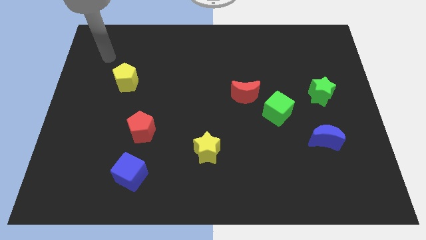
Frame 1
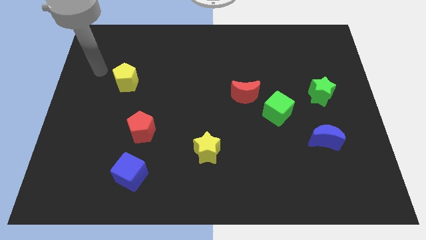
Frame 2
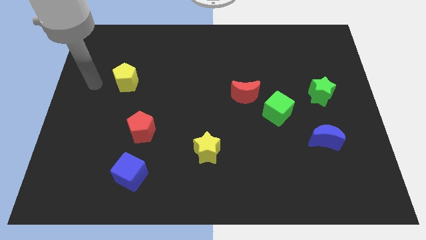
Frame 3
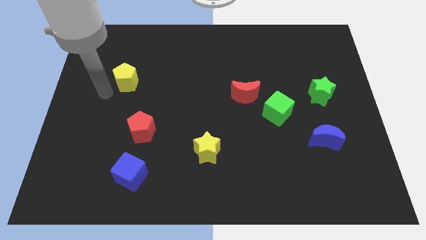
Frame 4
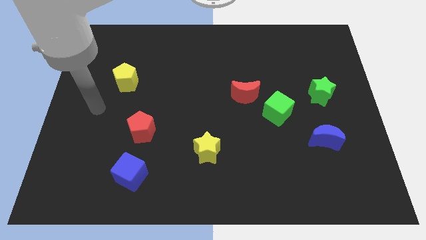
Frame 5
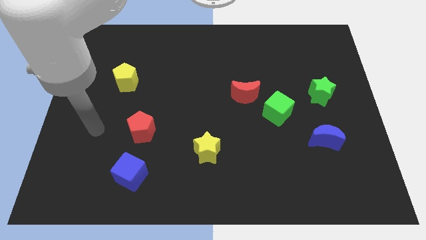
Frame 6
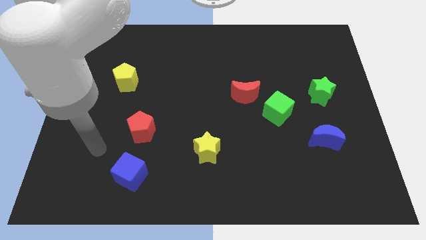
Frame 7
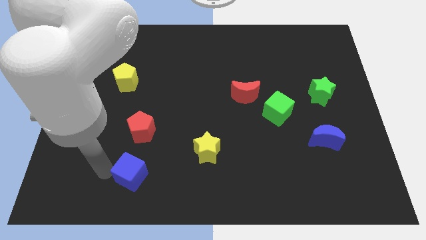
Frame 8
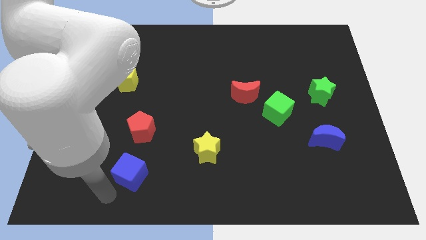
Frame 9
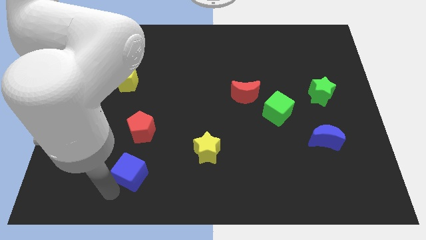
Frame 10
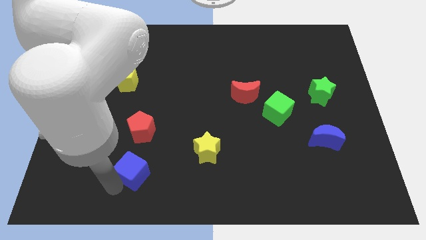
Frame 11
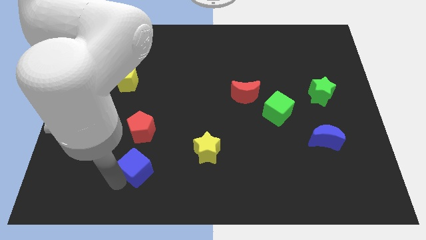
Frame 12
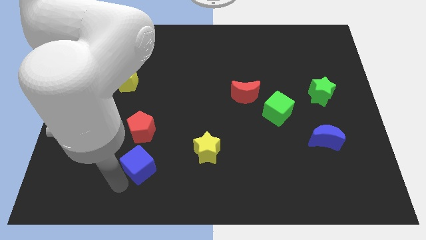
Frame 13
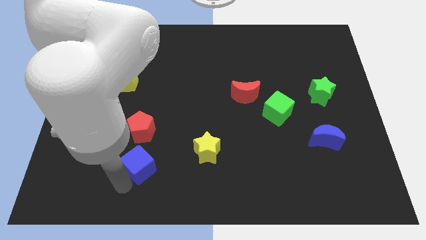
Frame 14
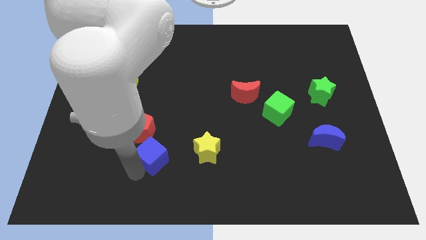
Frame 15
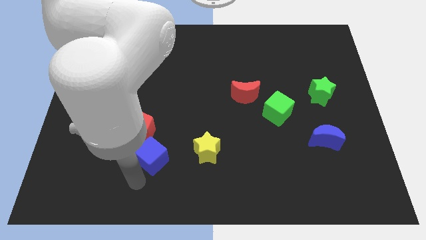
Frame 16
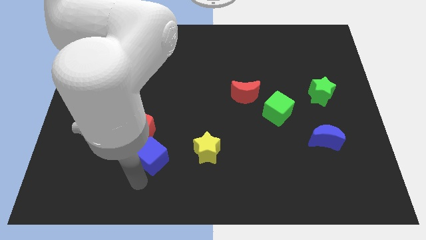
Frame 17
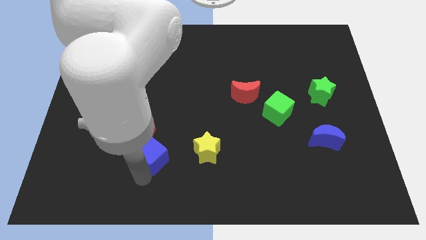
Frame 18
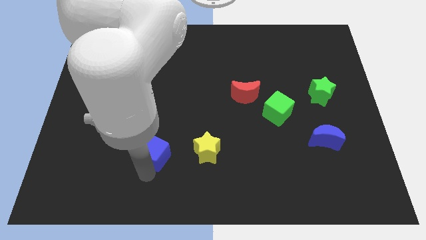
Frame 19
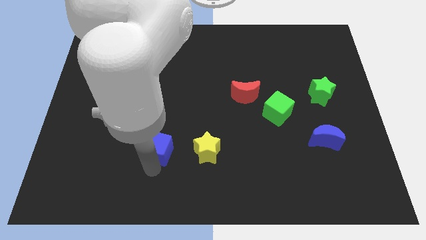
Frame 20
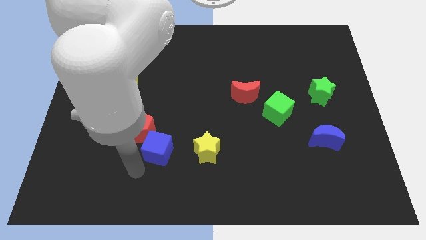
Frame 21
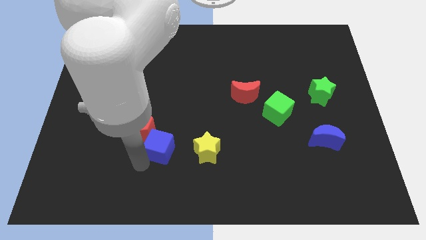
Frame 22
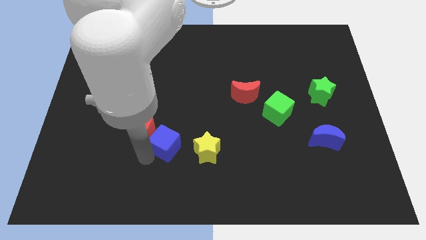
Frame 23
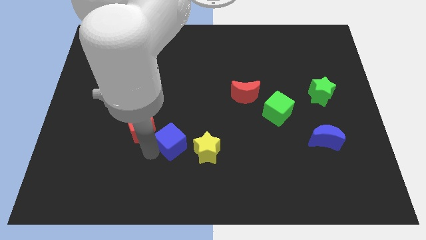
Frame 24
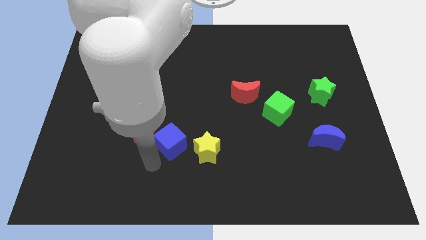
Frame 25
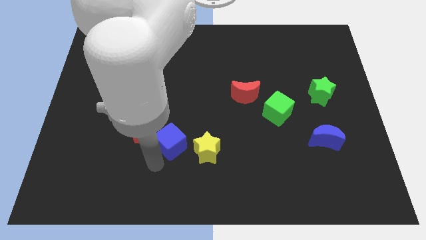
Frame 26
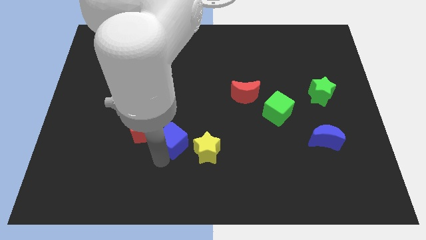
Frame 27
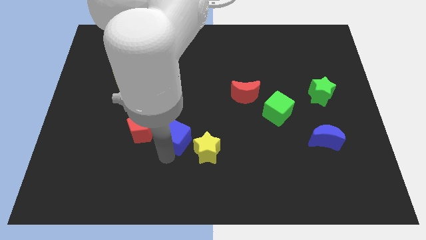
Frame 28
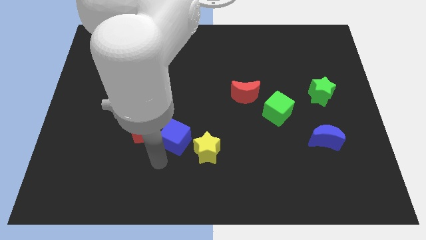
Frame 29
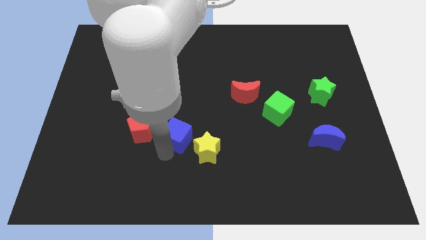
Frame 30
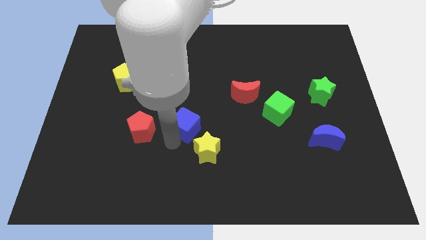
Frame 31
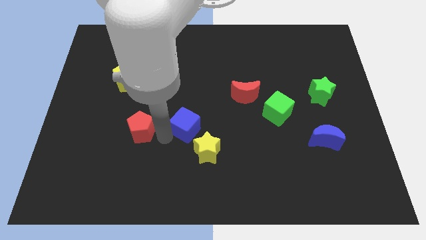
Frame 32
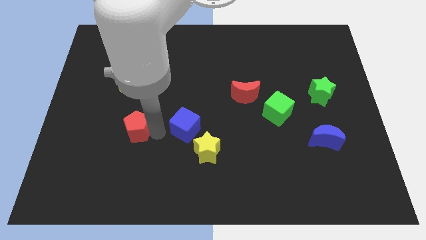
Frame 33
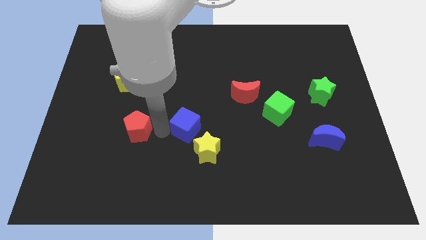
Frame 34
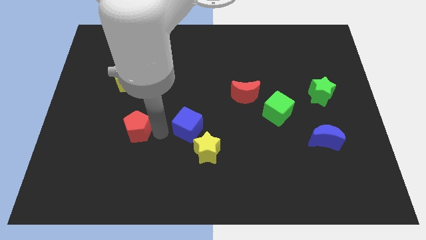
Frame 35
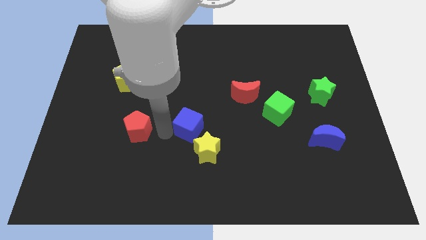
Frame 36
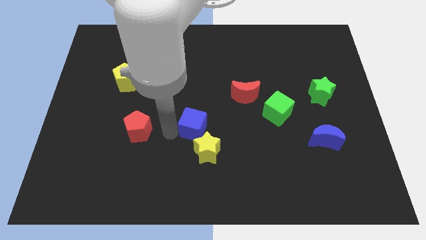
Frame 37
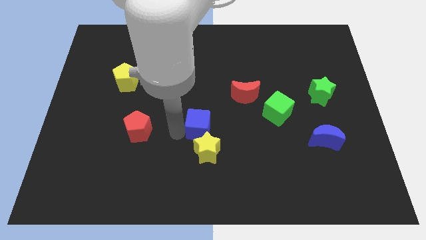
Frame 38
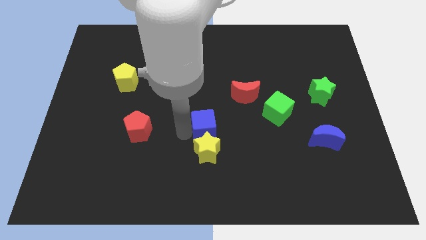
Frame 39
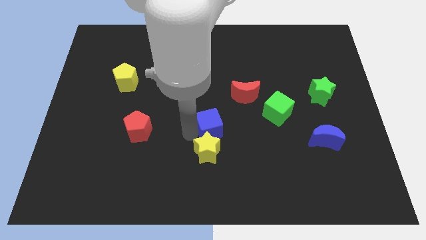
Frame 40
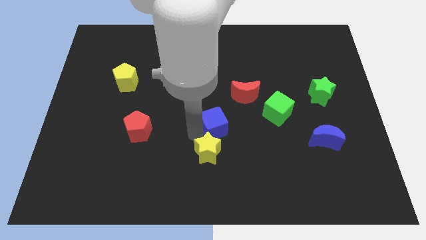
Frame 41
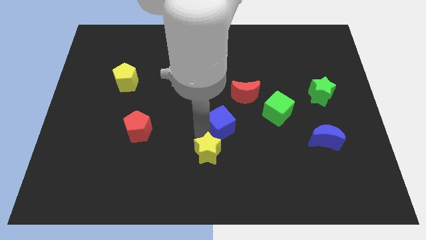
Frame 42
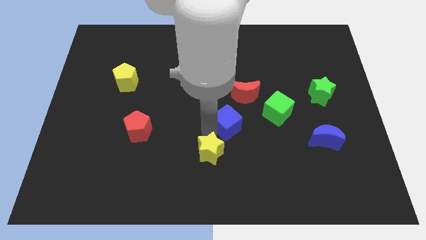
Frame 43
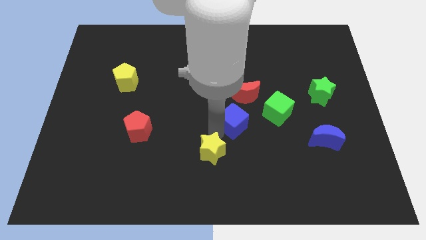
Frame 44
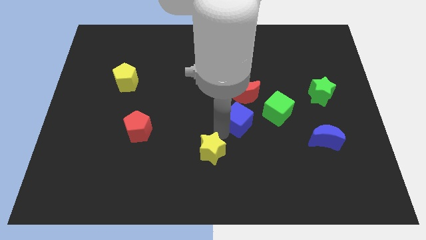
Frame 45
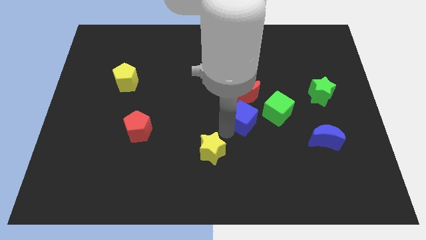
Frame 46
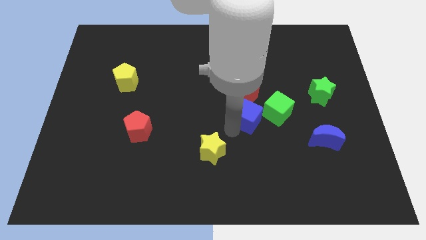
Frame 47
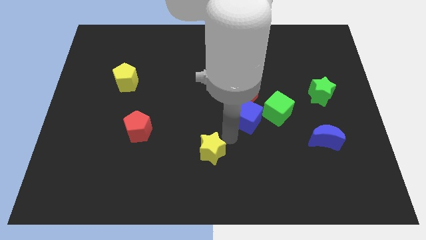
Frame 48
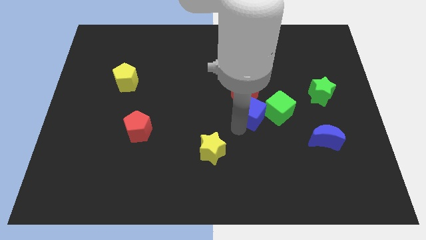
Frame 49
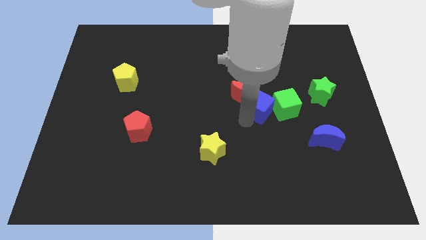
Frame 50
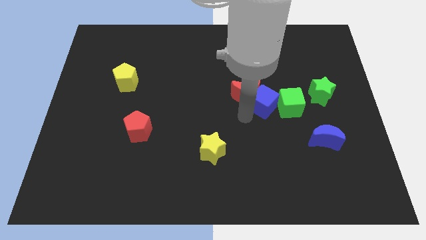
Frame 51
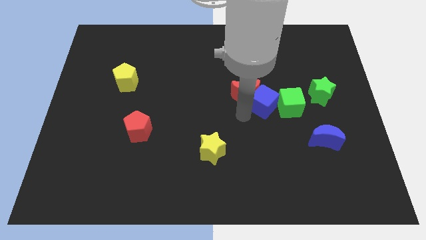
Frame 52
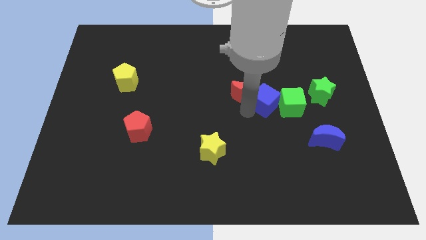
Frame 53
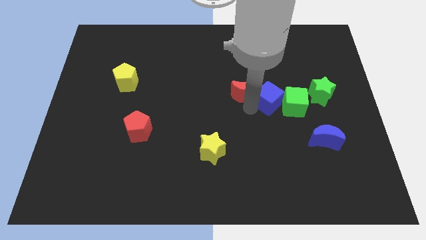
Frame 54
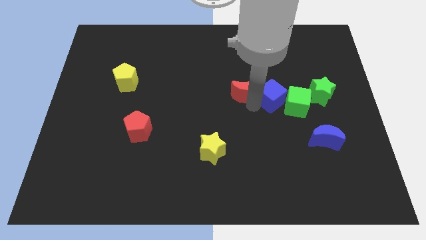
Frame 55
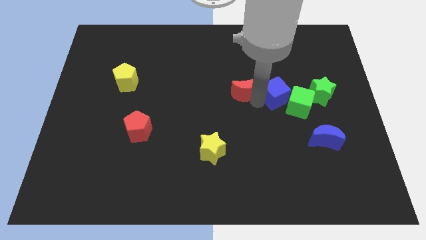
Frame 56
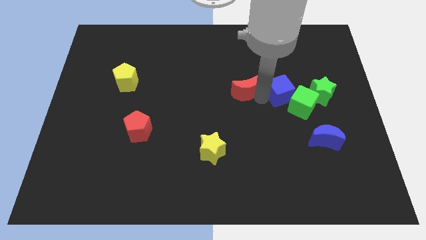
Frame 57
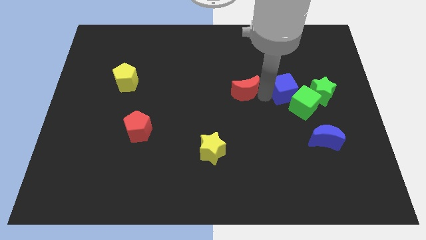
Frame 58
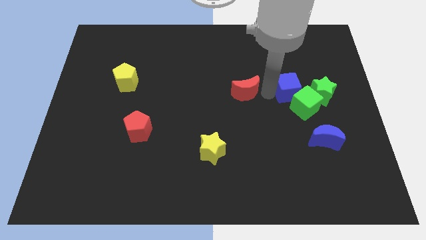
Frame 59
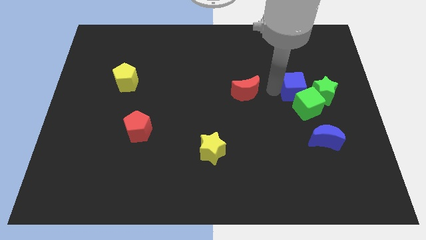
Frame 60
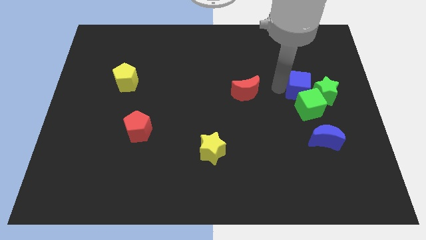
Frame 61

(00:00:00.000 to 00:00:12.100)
slide the blue cube towards the green star

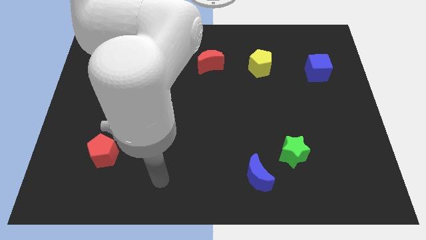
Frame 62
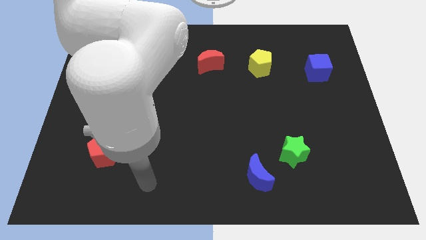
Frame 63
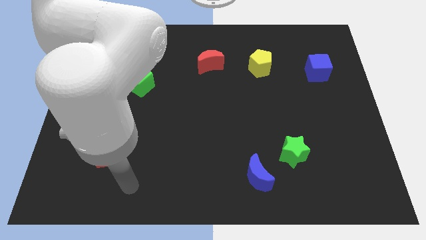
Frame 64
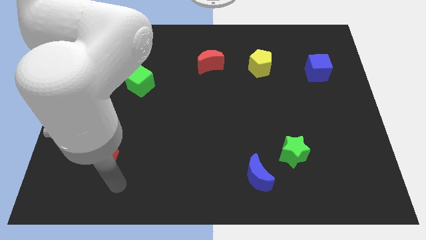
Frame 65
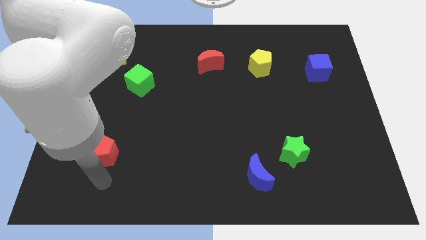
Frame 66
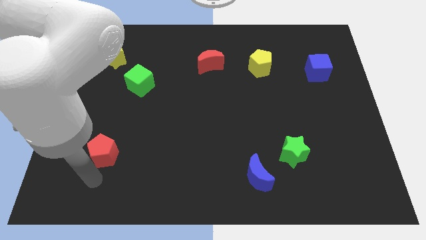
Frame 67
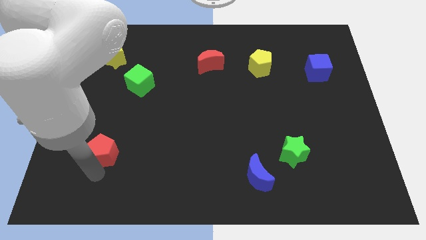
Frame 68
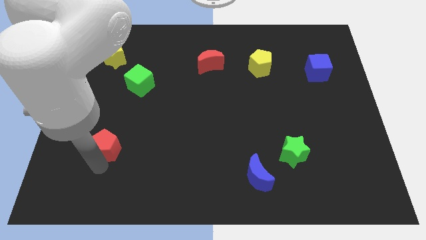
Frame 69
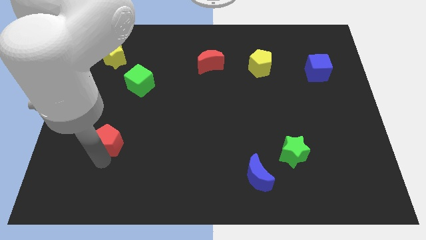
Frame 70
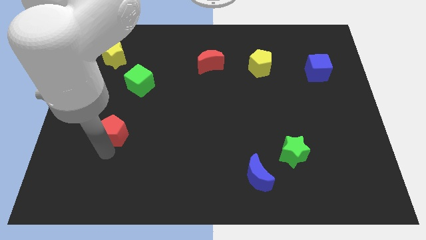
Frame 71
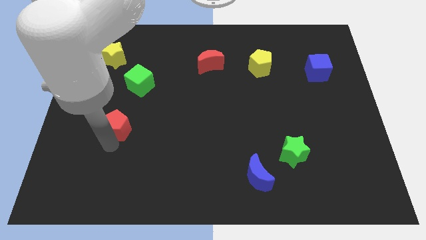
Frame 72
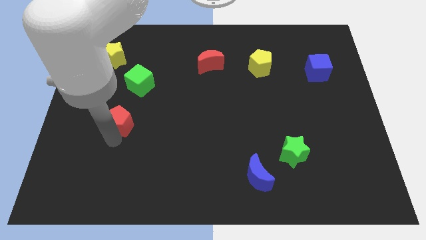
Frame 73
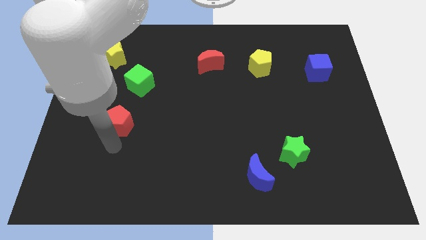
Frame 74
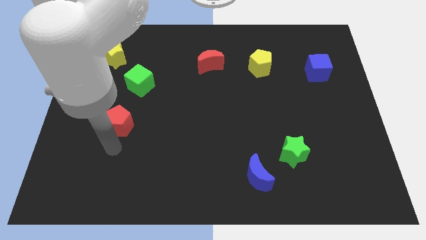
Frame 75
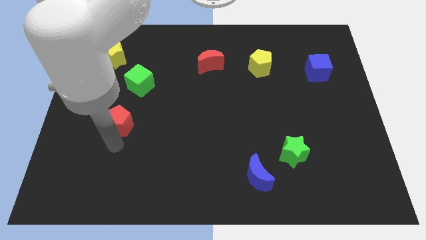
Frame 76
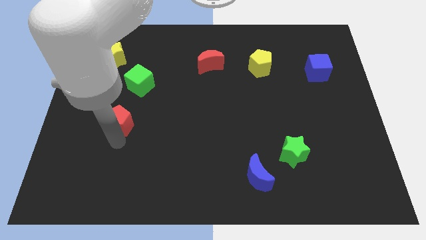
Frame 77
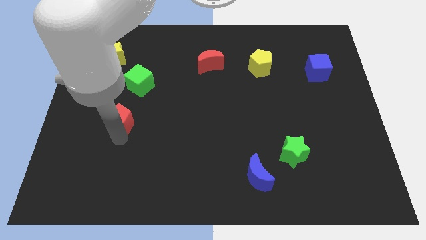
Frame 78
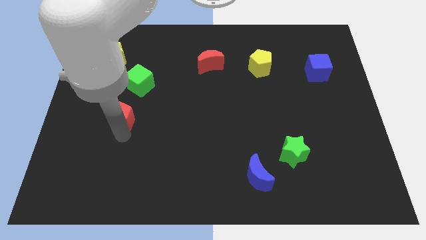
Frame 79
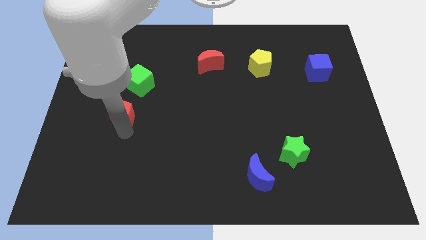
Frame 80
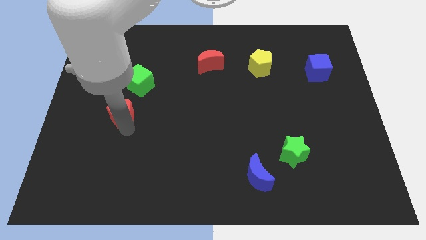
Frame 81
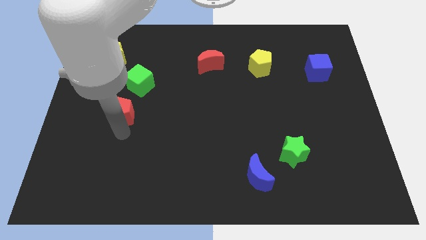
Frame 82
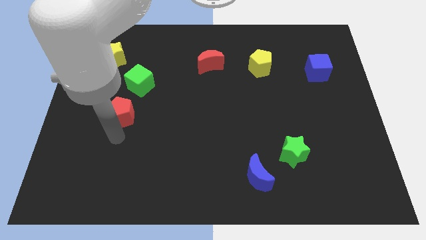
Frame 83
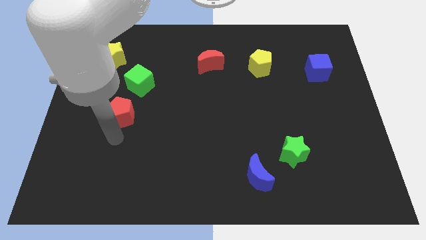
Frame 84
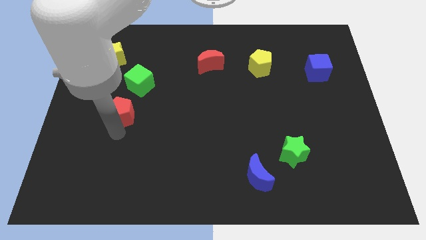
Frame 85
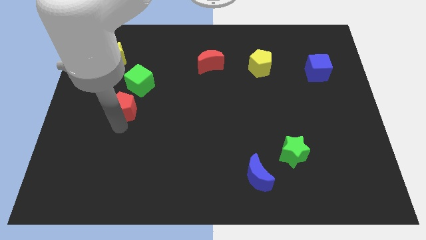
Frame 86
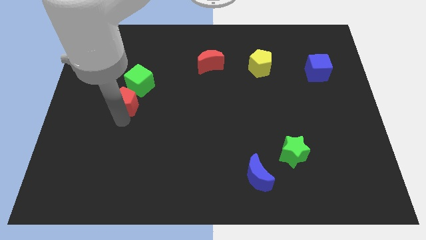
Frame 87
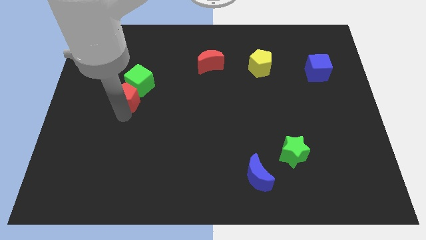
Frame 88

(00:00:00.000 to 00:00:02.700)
move the red pentagon towards the green cube
